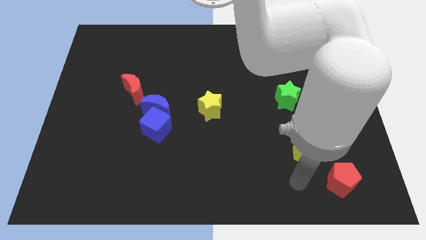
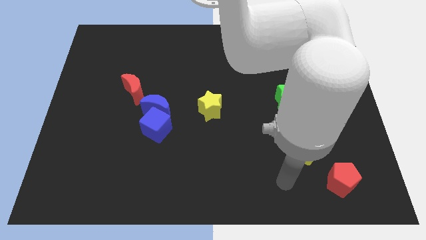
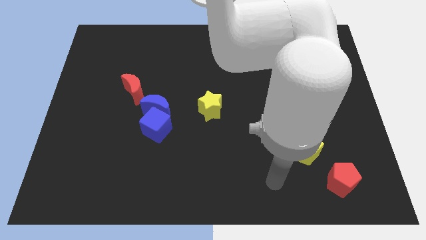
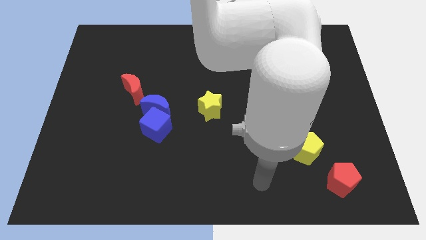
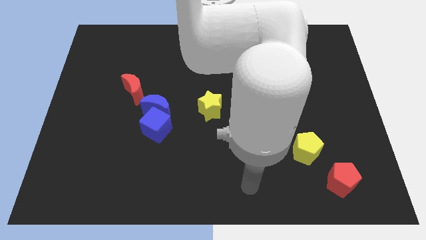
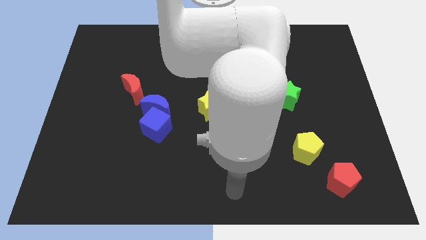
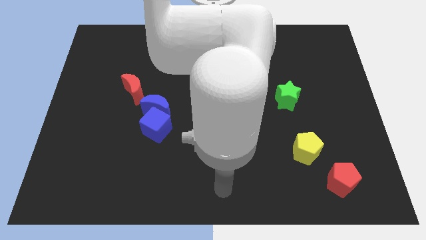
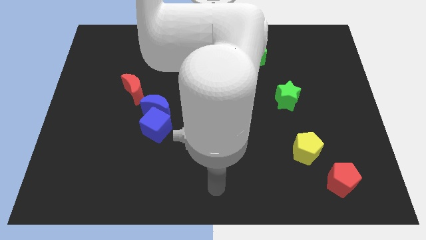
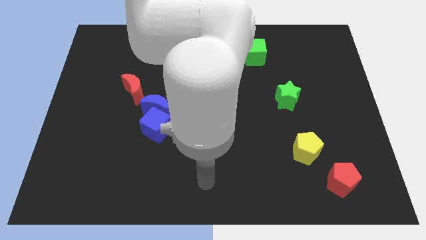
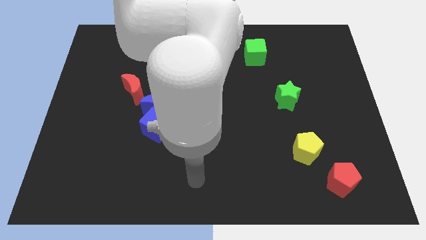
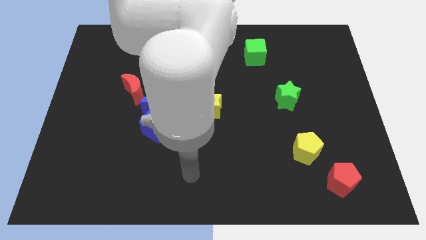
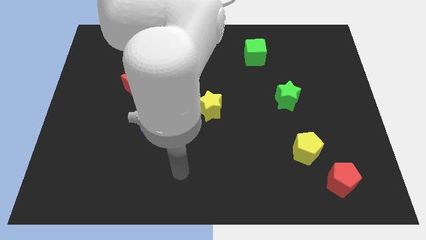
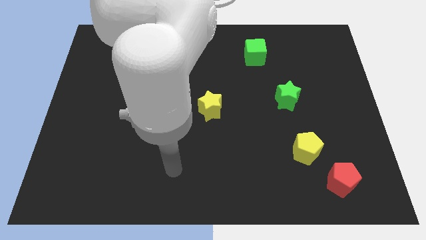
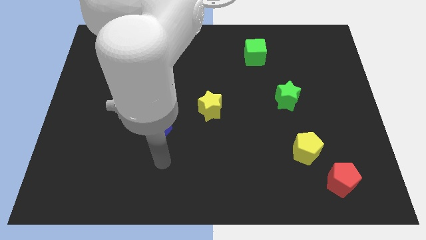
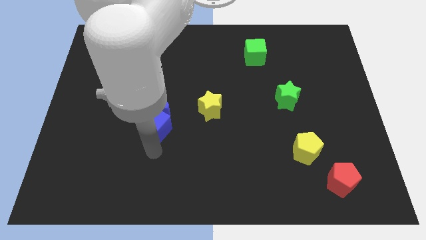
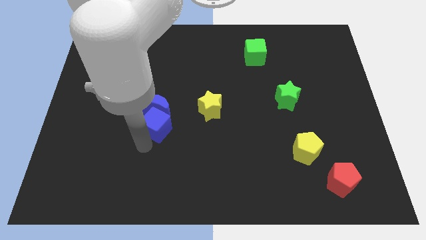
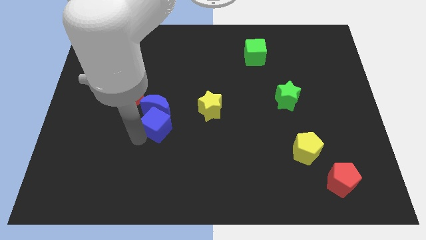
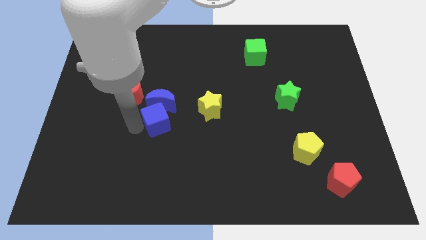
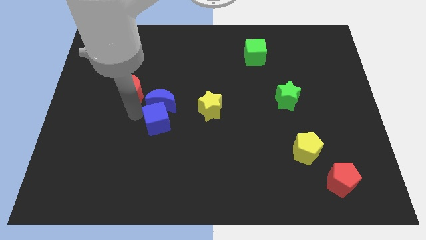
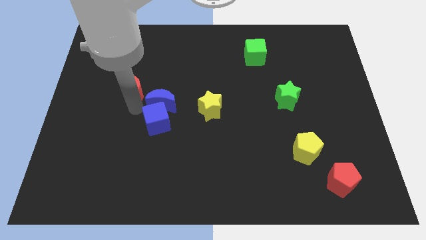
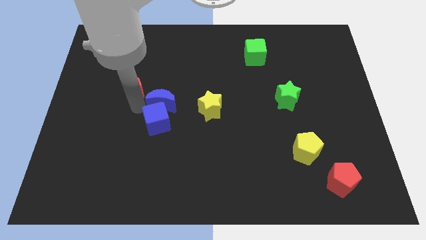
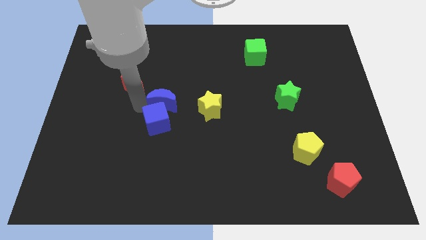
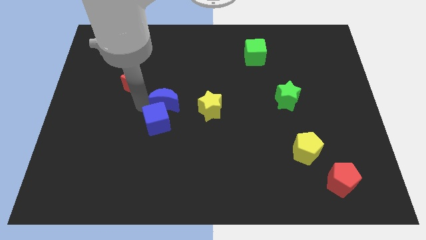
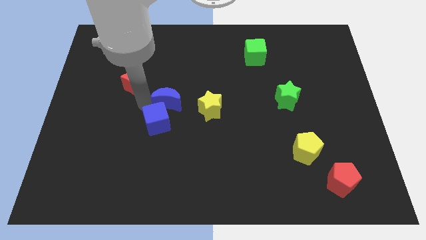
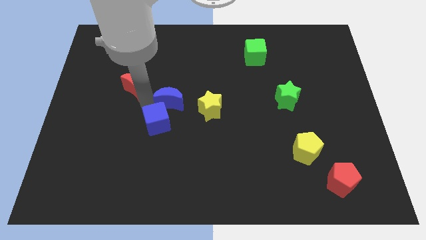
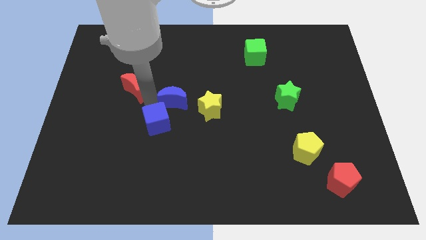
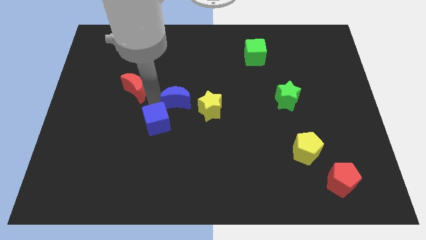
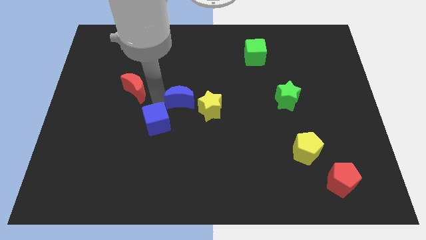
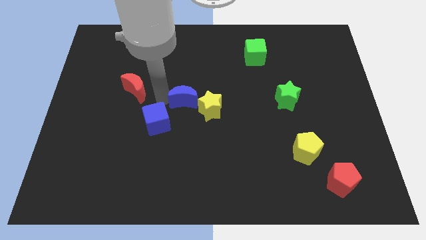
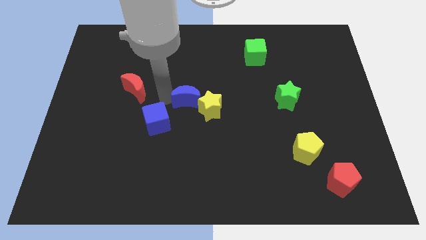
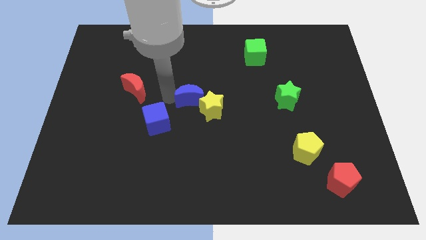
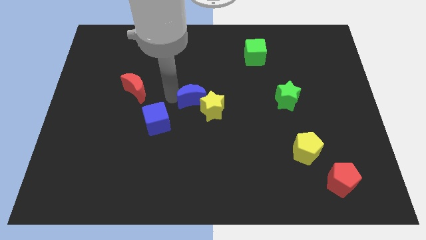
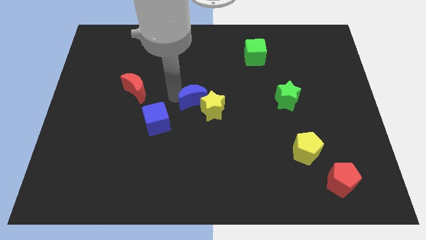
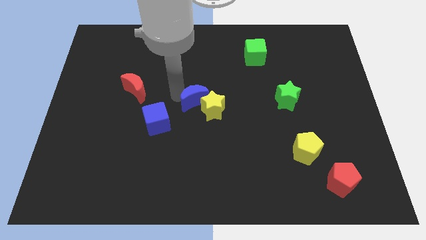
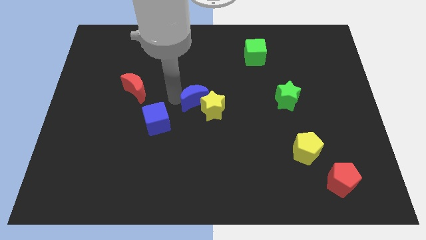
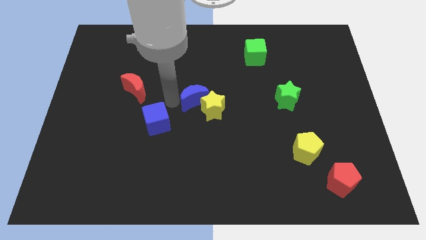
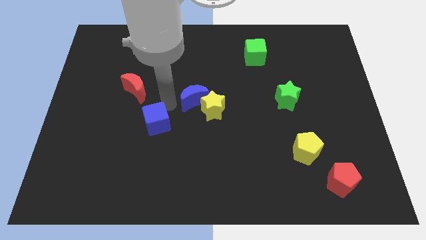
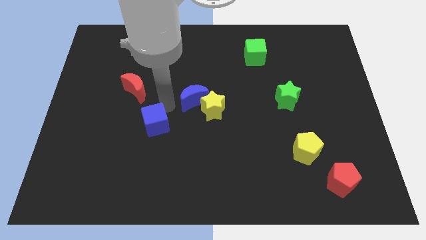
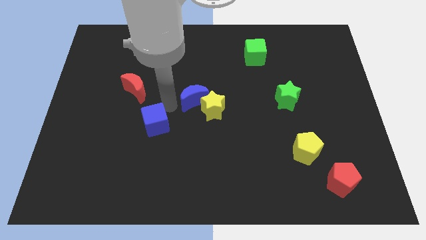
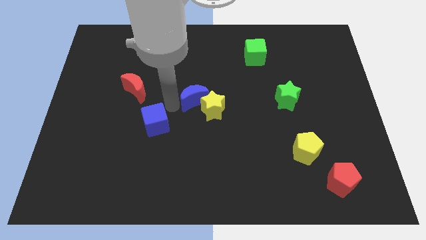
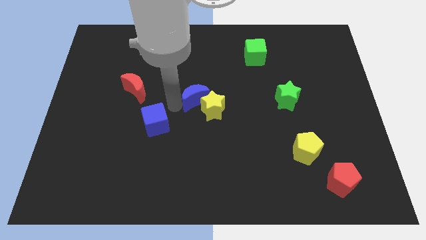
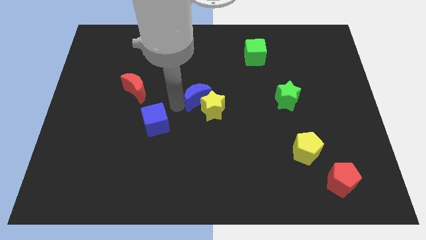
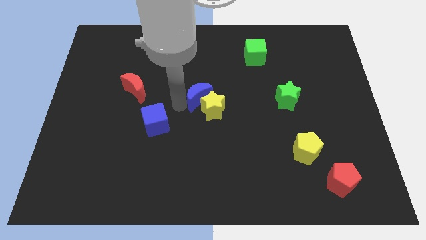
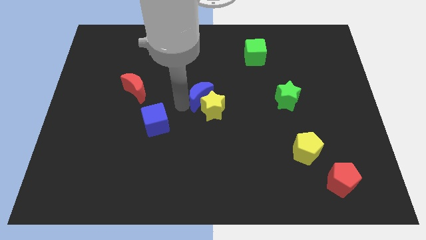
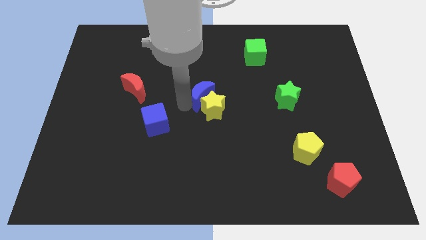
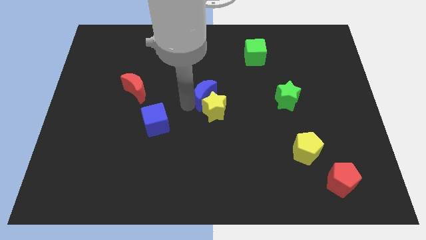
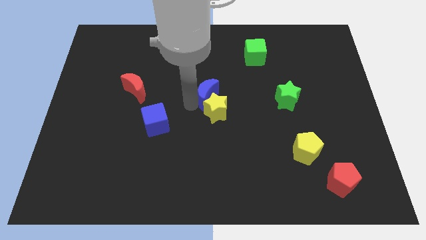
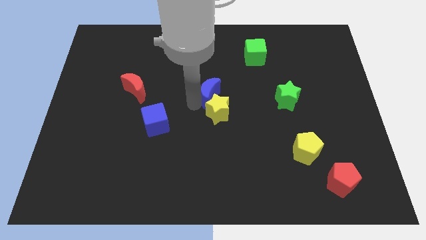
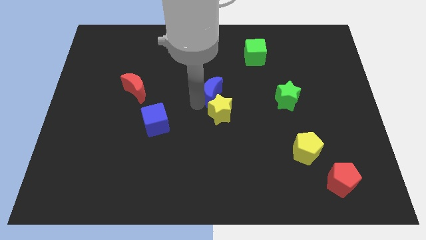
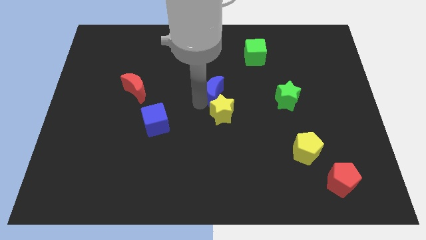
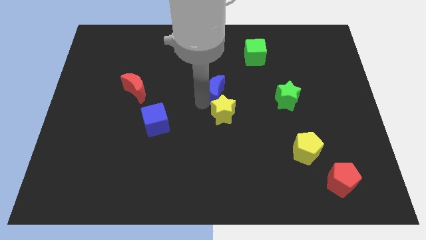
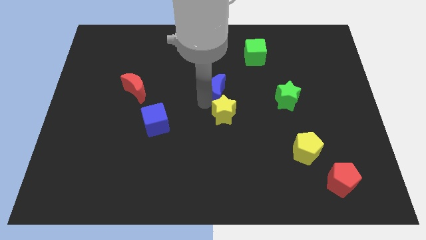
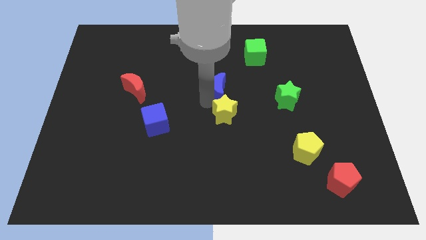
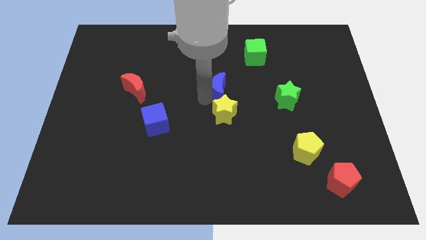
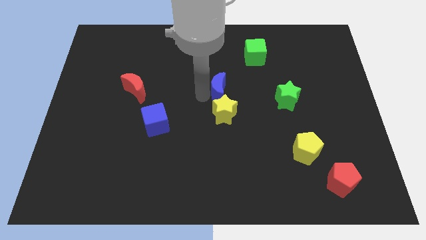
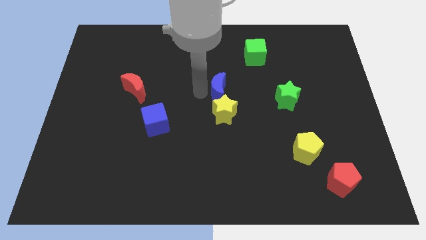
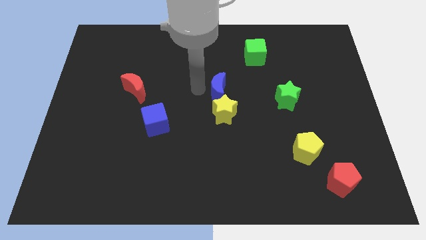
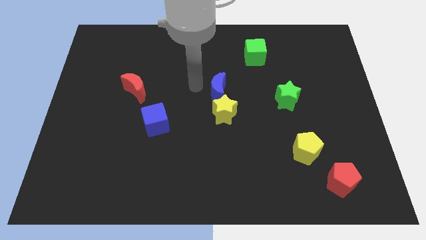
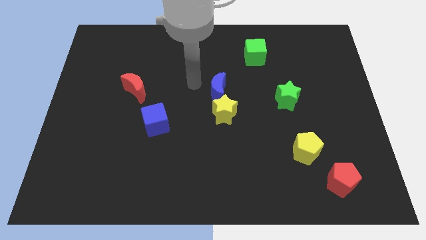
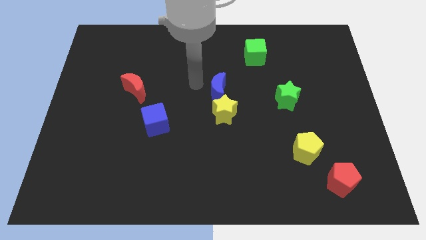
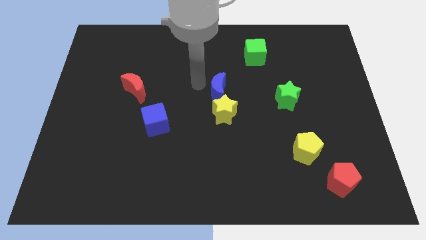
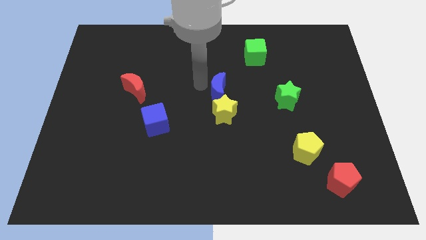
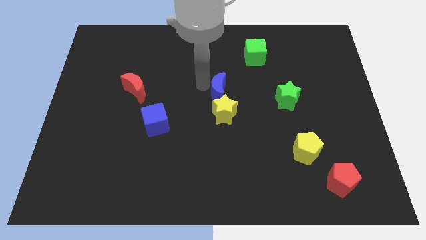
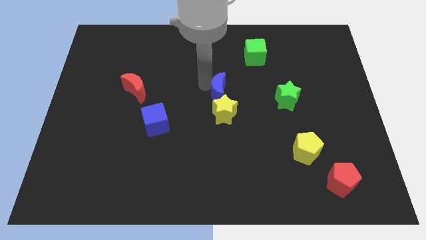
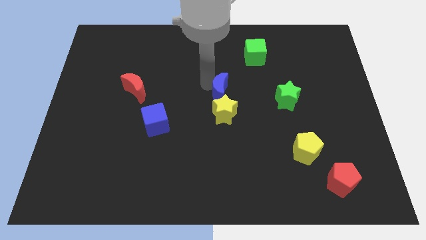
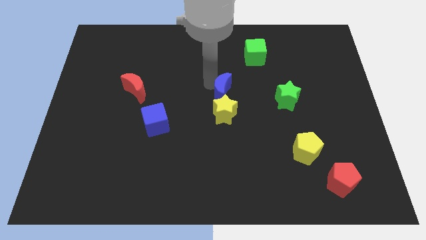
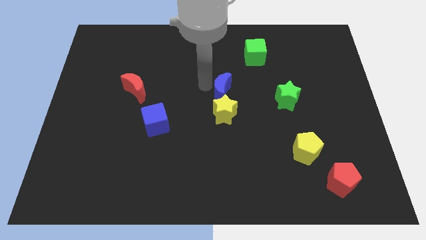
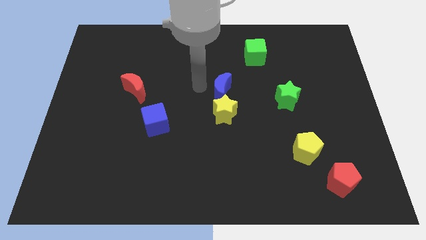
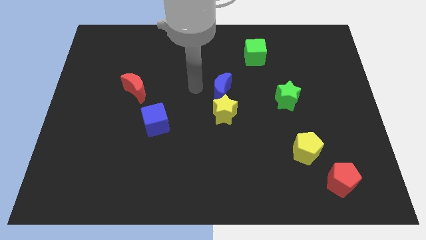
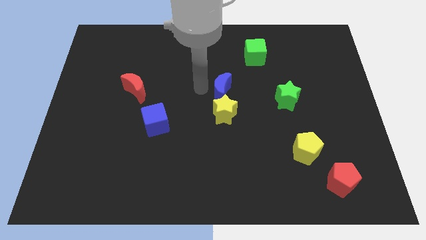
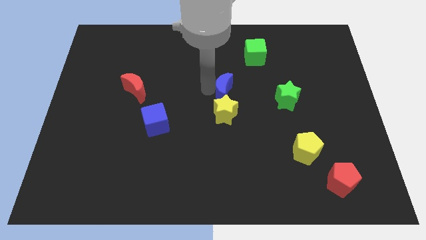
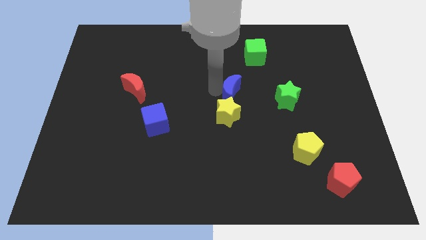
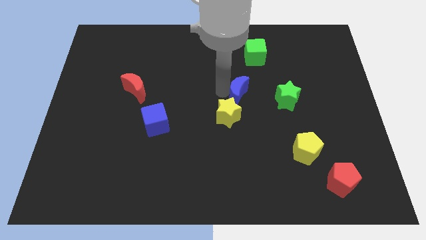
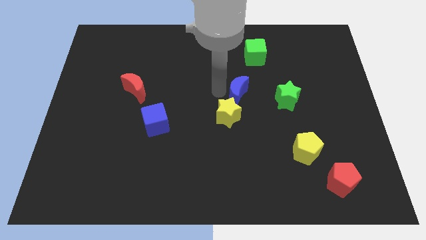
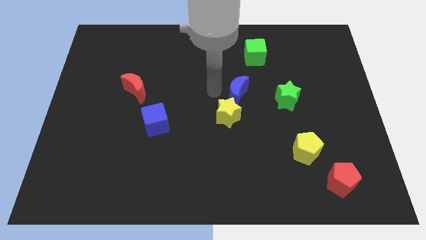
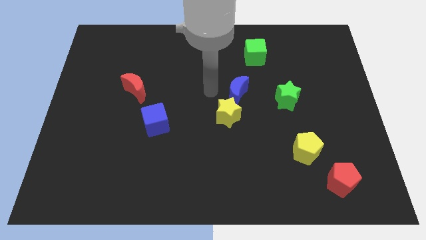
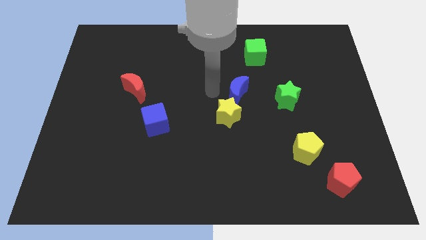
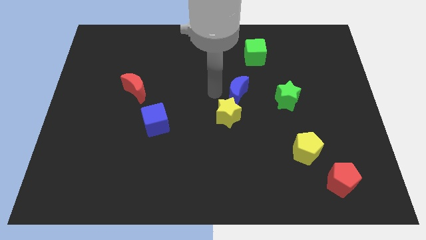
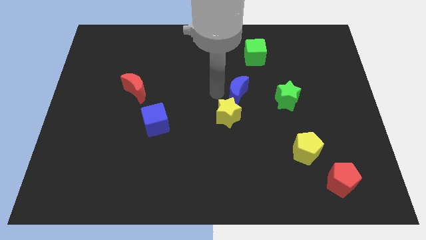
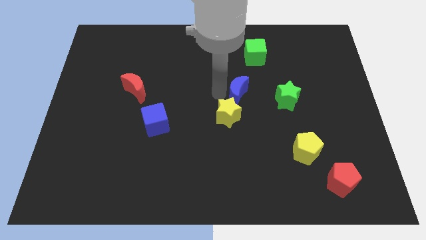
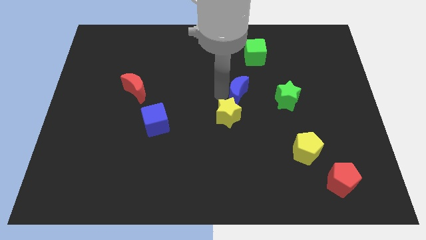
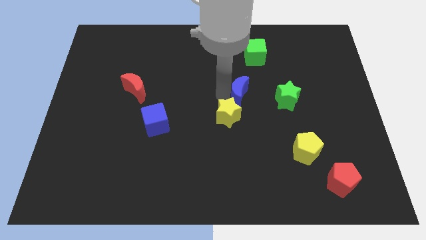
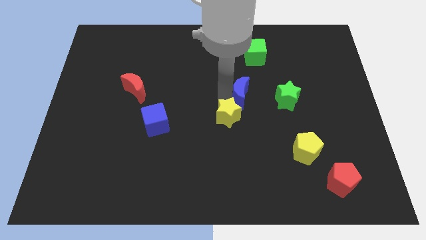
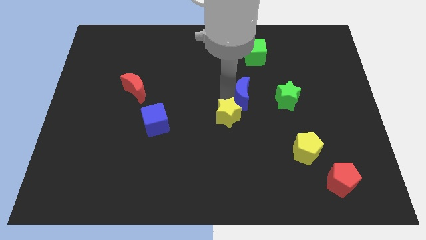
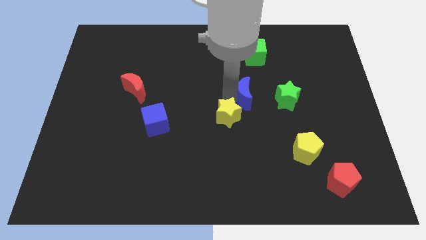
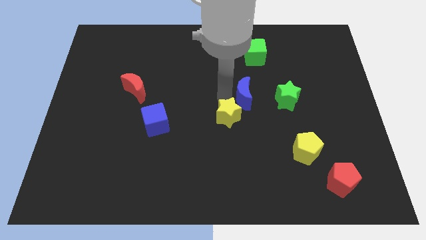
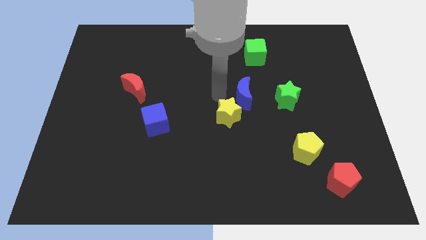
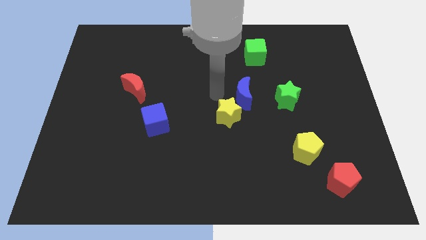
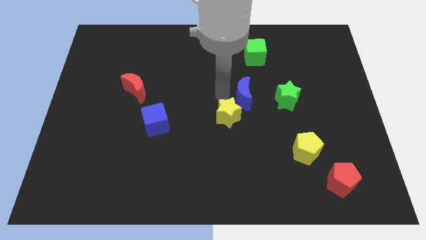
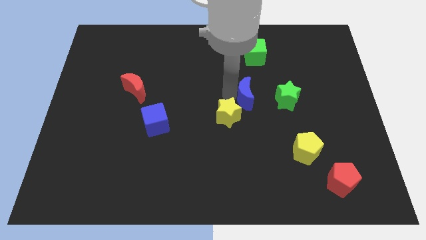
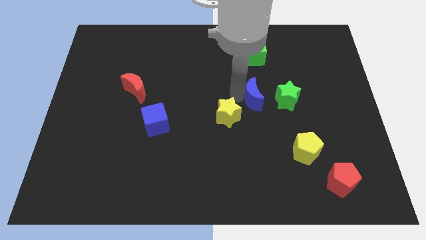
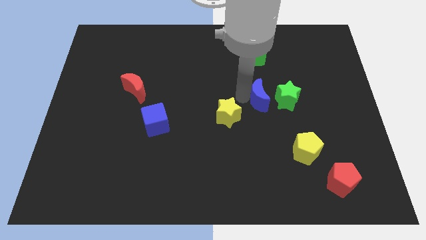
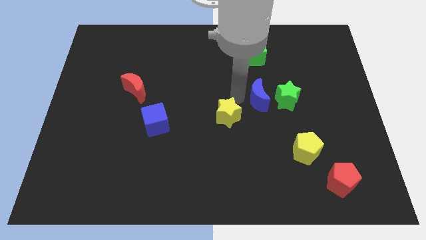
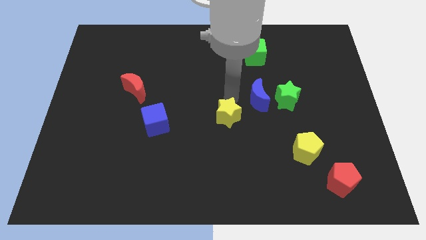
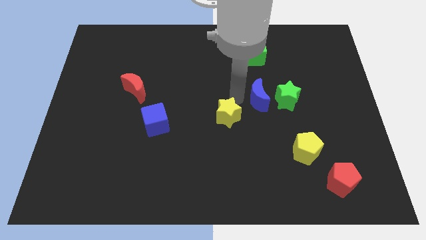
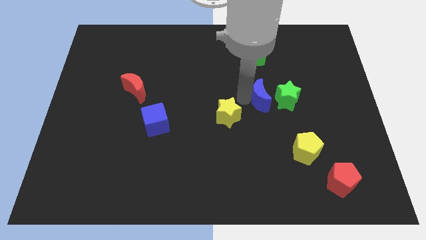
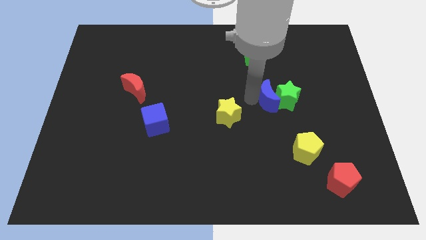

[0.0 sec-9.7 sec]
push the blue moon to the green star
